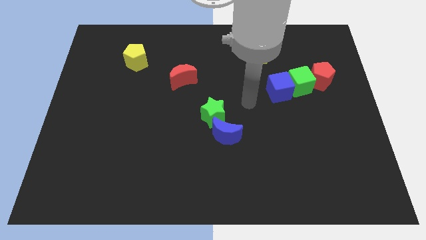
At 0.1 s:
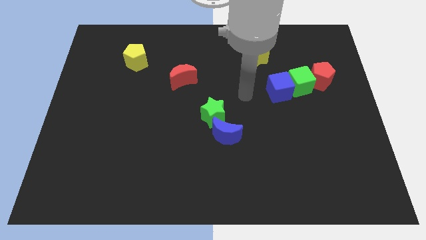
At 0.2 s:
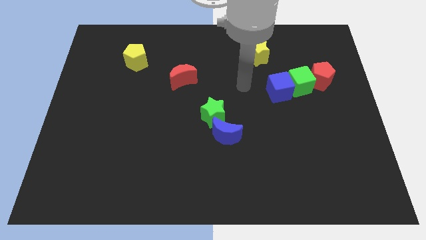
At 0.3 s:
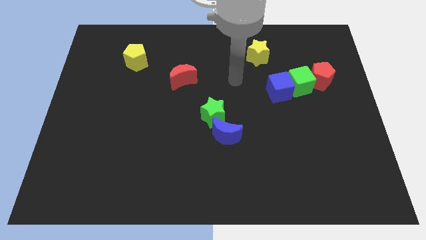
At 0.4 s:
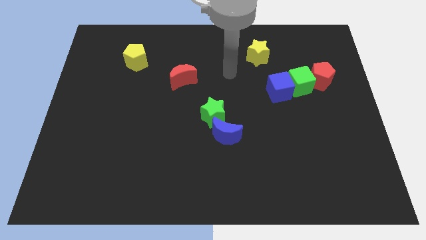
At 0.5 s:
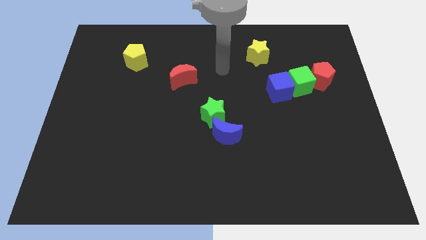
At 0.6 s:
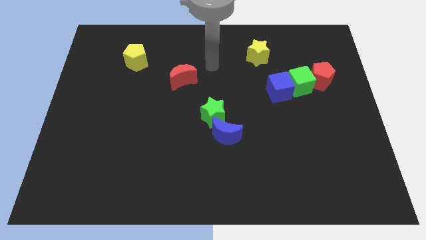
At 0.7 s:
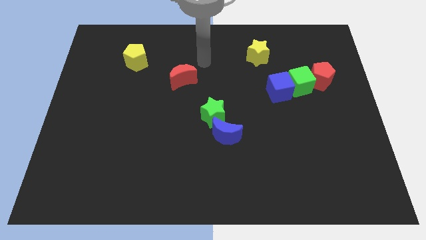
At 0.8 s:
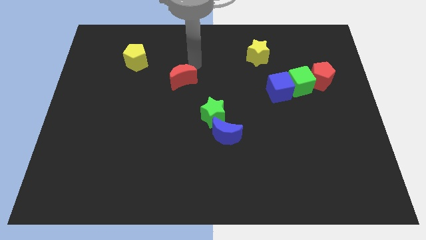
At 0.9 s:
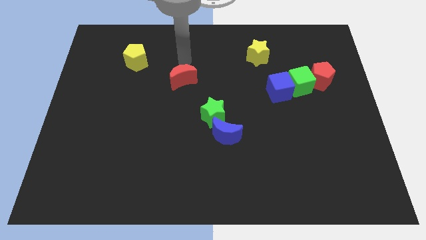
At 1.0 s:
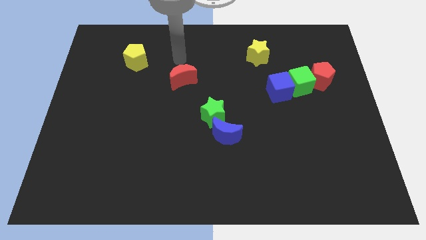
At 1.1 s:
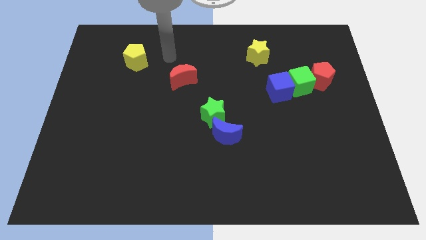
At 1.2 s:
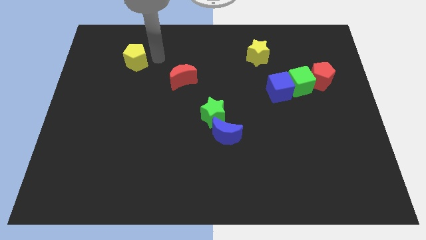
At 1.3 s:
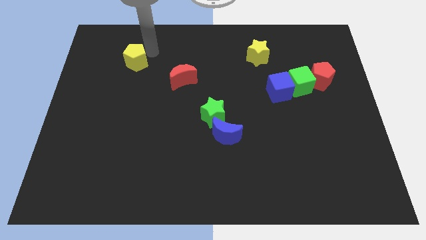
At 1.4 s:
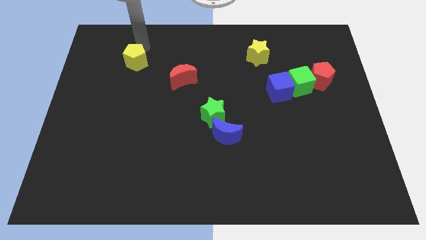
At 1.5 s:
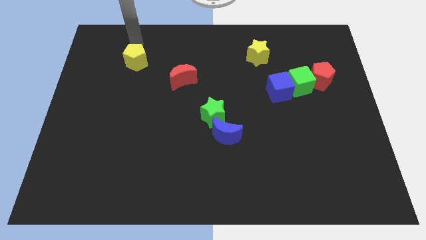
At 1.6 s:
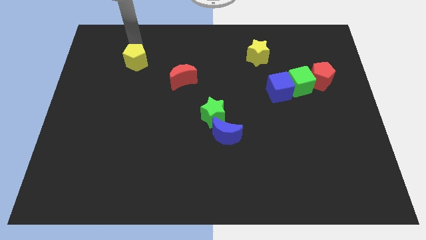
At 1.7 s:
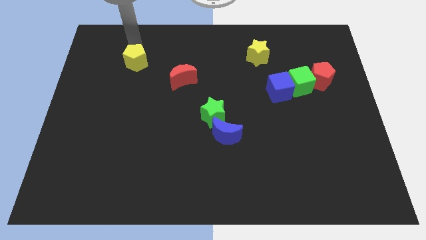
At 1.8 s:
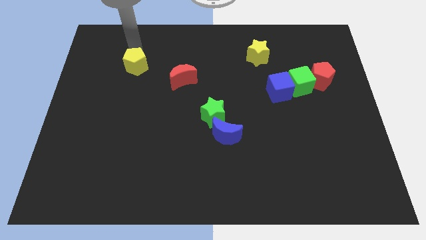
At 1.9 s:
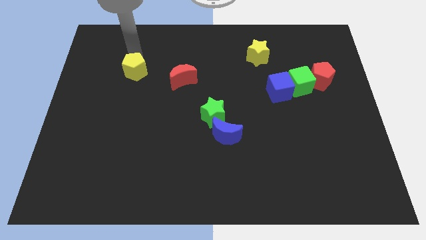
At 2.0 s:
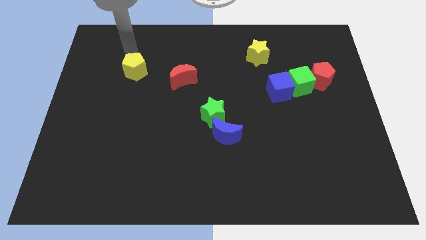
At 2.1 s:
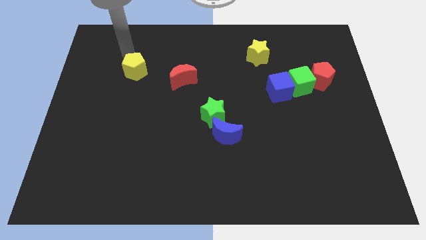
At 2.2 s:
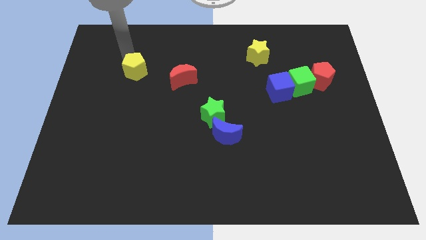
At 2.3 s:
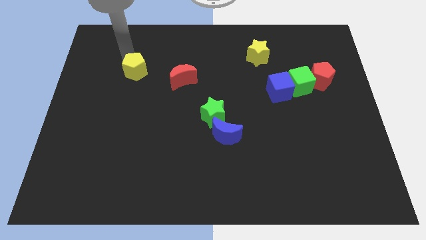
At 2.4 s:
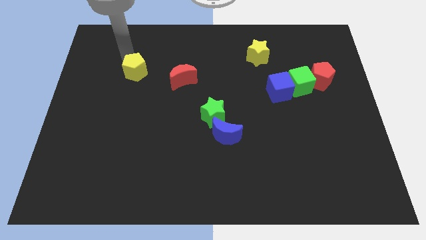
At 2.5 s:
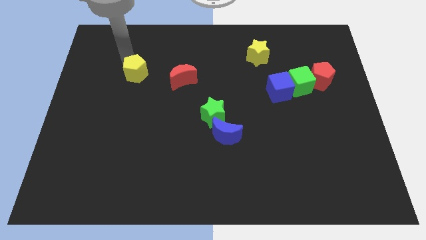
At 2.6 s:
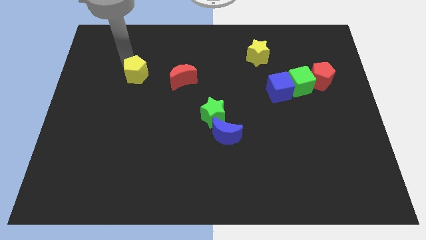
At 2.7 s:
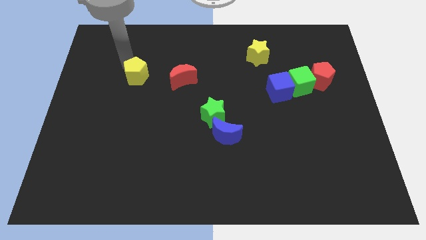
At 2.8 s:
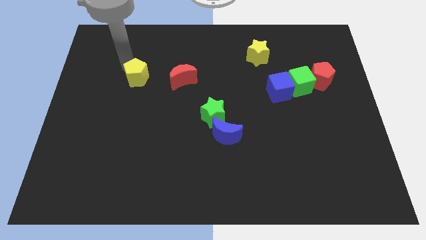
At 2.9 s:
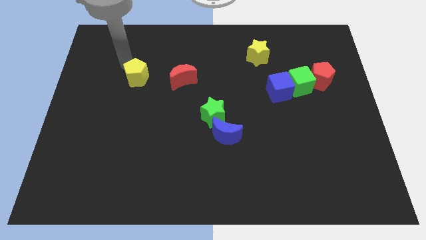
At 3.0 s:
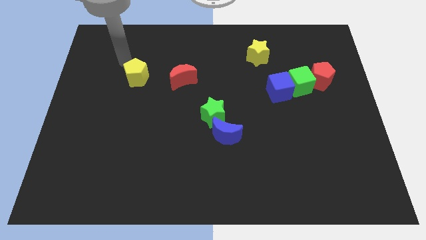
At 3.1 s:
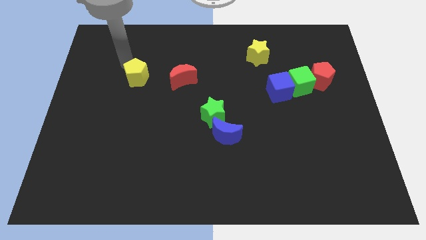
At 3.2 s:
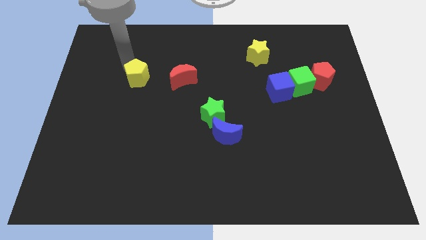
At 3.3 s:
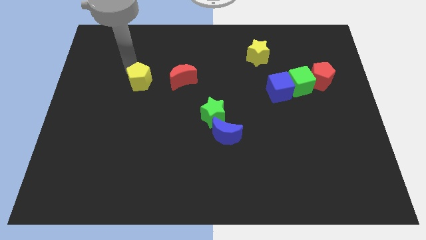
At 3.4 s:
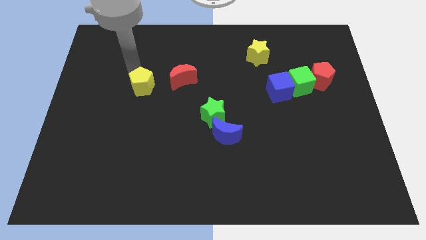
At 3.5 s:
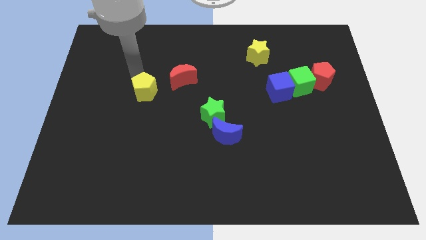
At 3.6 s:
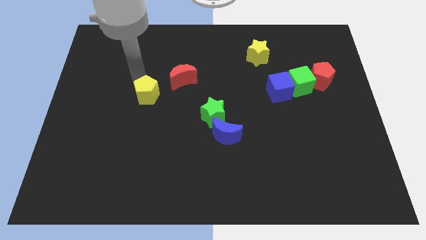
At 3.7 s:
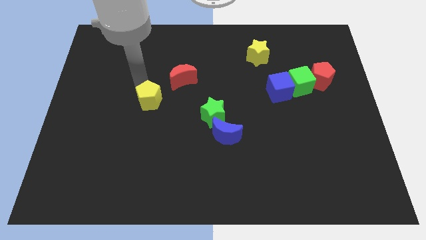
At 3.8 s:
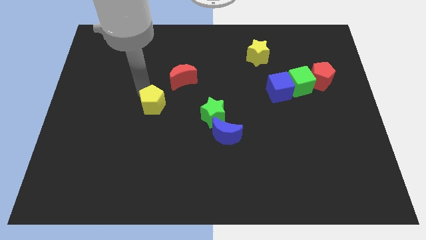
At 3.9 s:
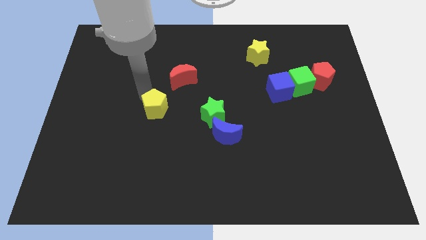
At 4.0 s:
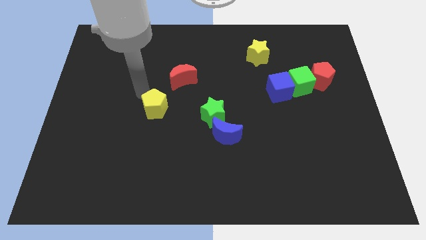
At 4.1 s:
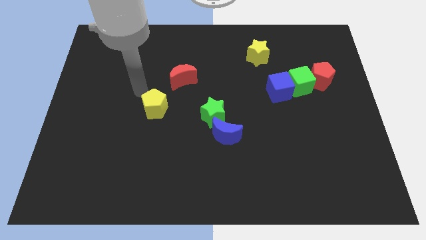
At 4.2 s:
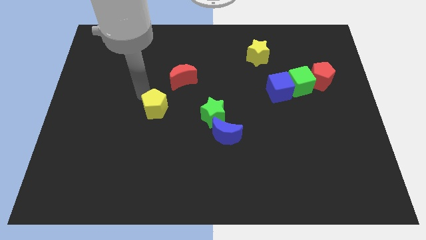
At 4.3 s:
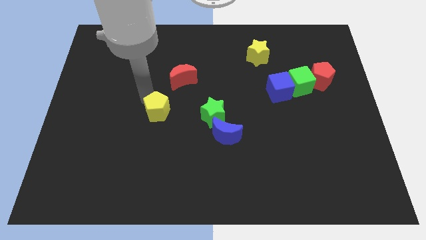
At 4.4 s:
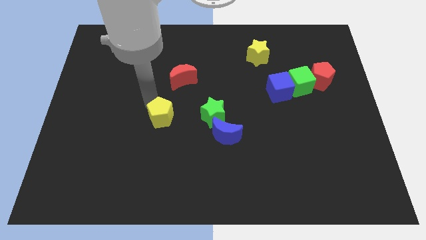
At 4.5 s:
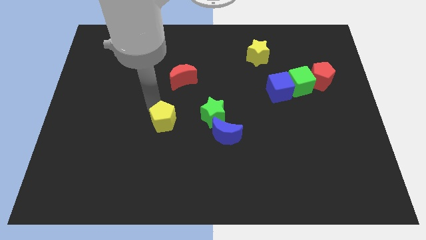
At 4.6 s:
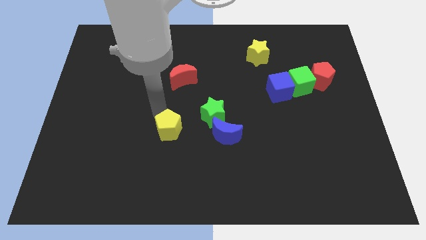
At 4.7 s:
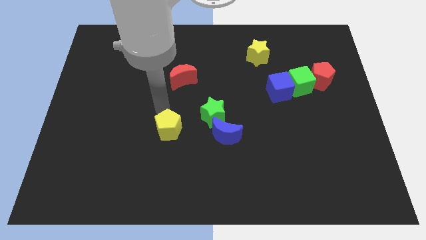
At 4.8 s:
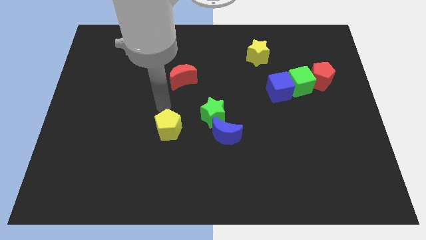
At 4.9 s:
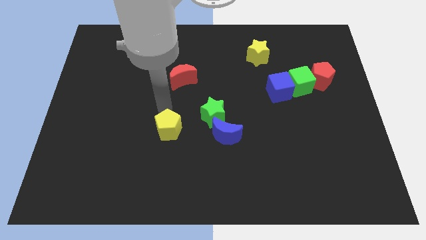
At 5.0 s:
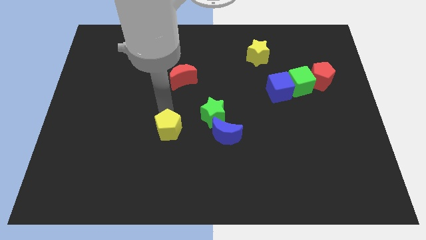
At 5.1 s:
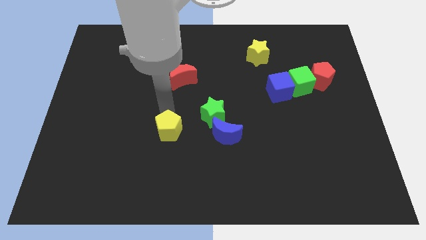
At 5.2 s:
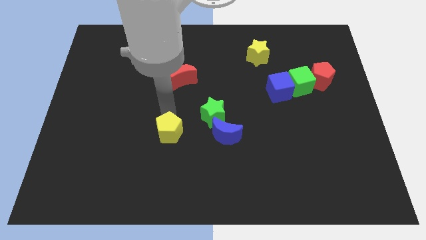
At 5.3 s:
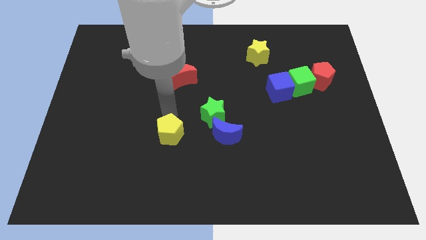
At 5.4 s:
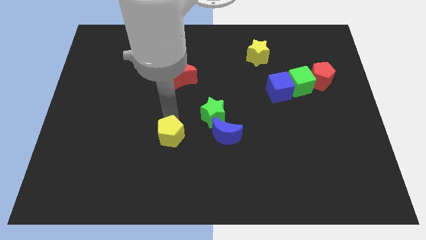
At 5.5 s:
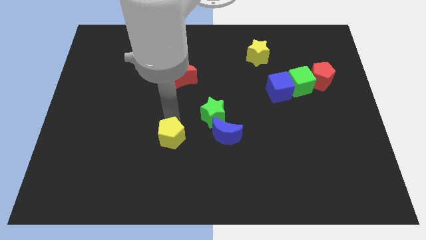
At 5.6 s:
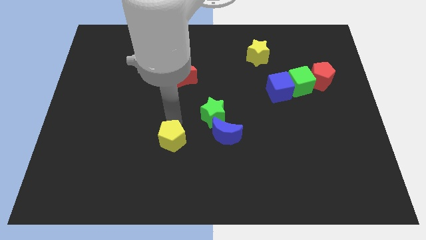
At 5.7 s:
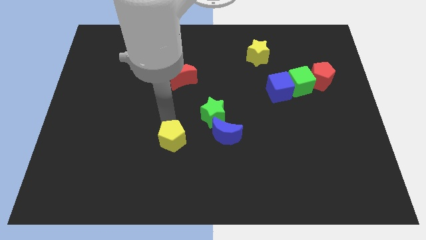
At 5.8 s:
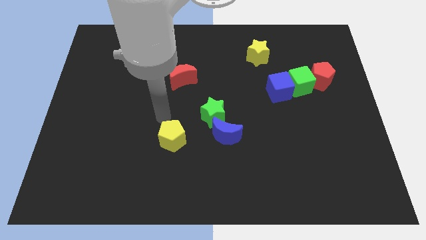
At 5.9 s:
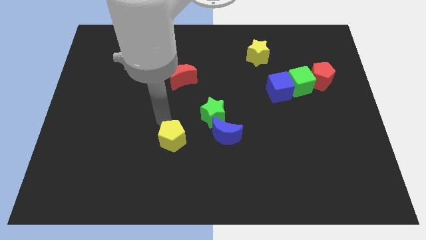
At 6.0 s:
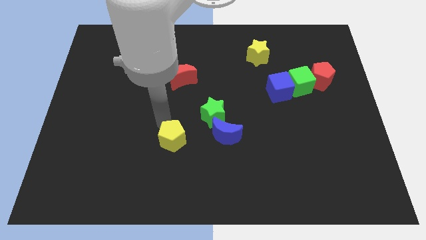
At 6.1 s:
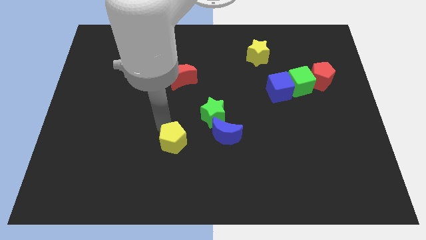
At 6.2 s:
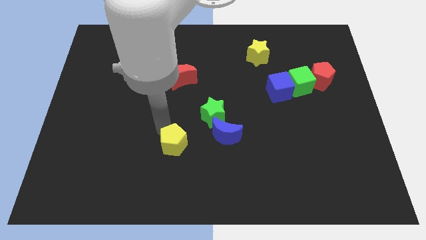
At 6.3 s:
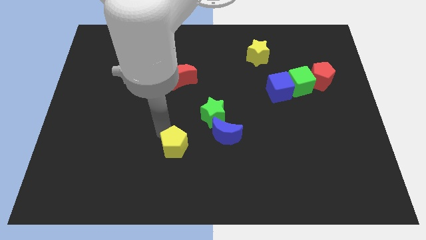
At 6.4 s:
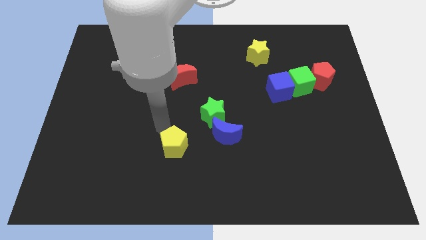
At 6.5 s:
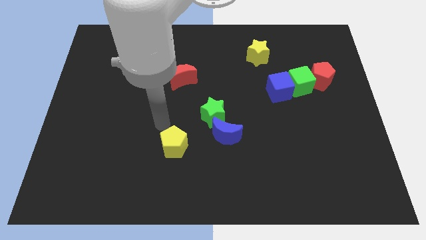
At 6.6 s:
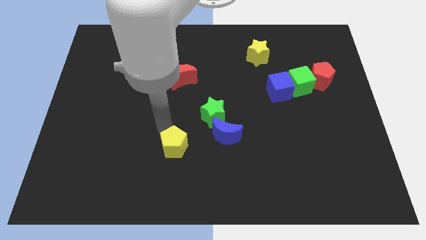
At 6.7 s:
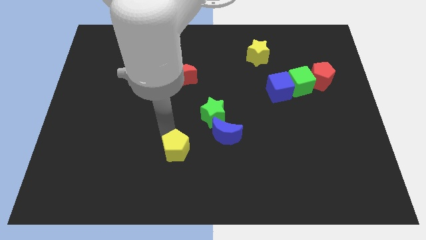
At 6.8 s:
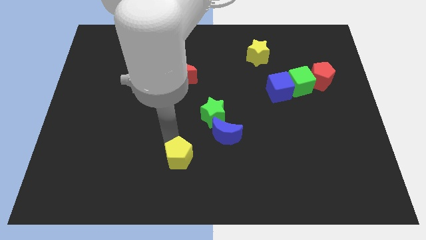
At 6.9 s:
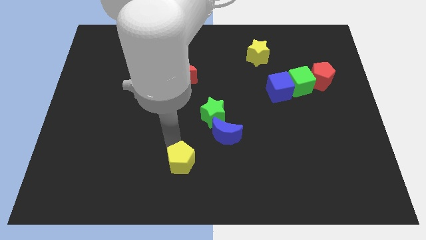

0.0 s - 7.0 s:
slide the yellow pentagon to the bottom side
